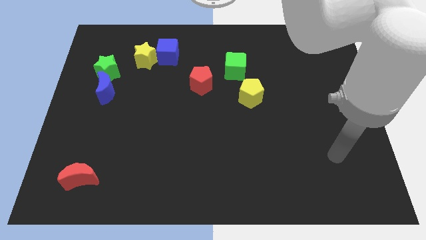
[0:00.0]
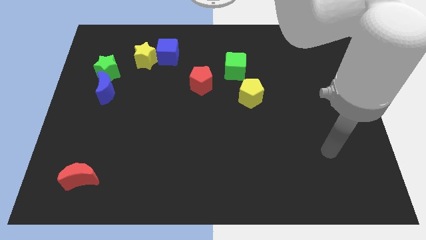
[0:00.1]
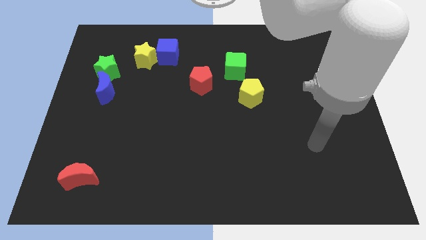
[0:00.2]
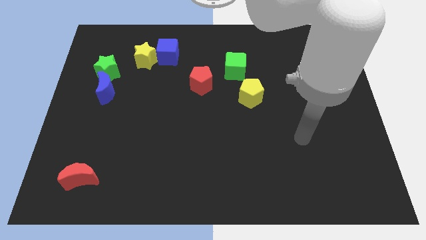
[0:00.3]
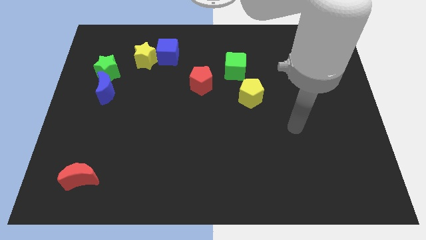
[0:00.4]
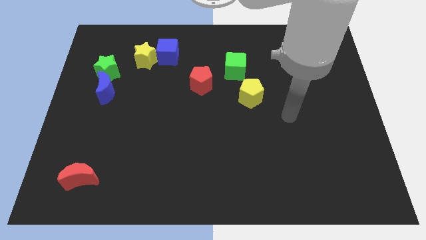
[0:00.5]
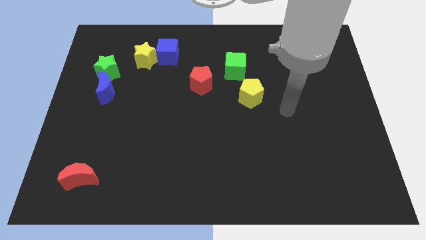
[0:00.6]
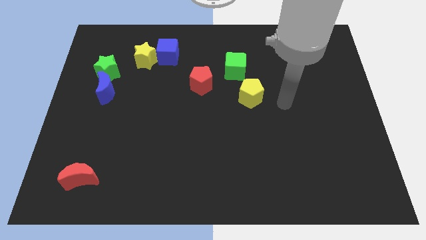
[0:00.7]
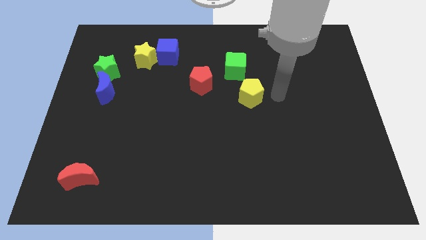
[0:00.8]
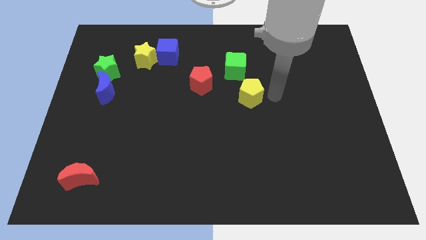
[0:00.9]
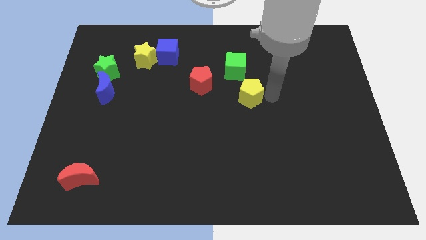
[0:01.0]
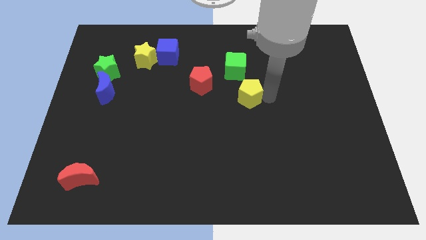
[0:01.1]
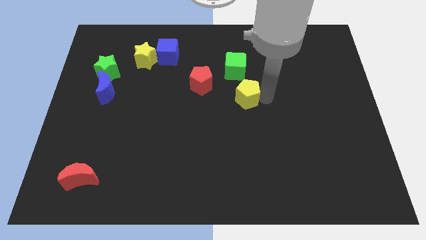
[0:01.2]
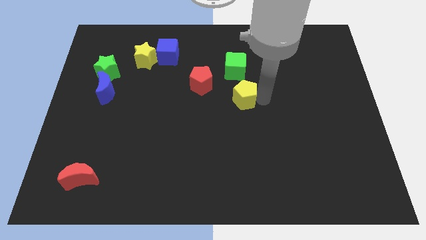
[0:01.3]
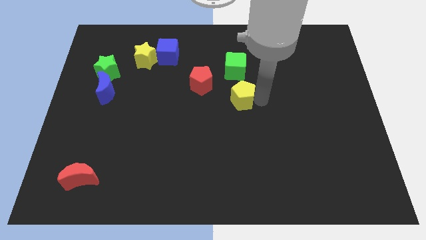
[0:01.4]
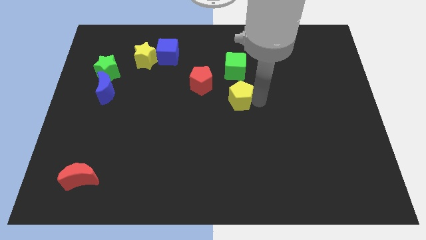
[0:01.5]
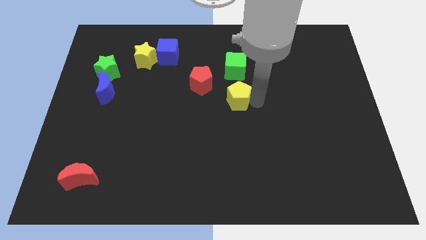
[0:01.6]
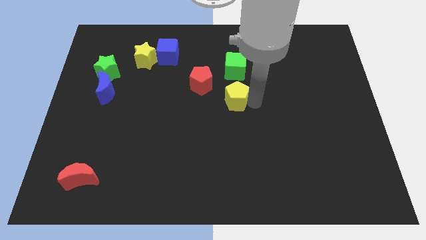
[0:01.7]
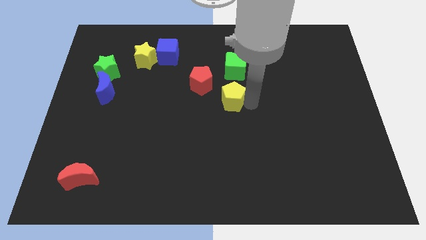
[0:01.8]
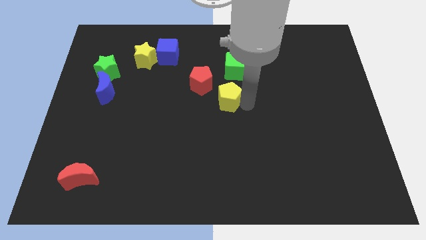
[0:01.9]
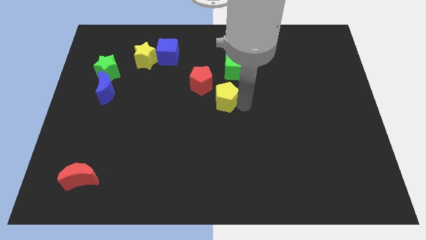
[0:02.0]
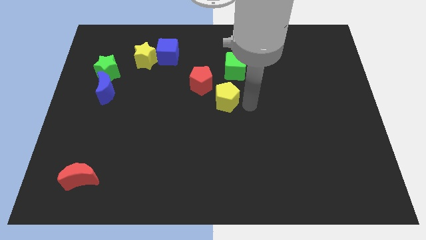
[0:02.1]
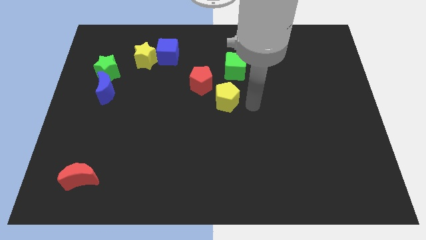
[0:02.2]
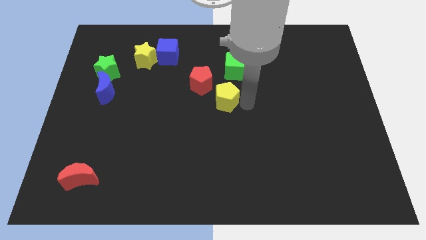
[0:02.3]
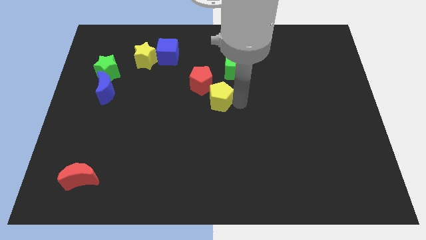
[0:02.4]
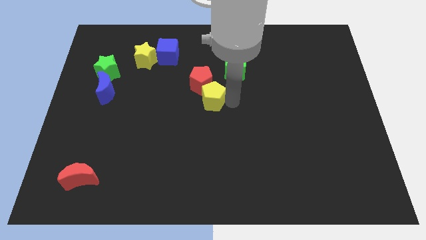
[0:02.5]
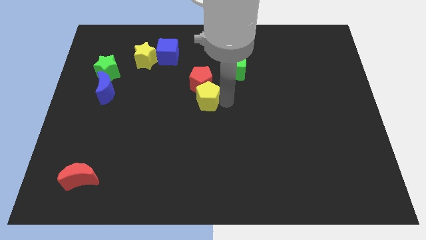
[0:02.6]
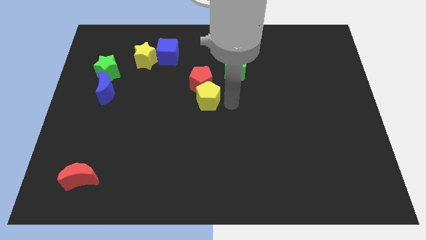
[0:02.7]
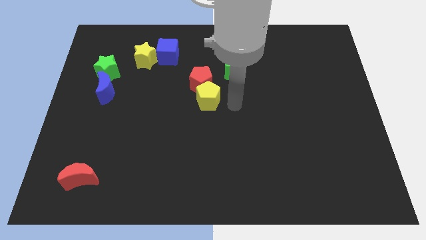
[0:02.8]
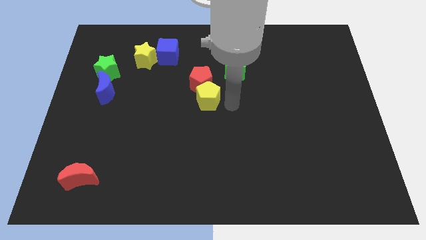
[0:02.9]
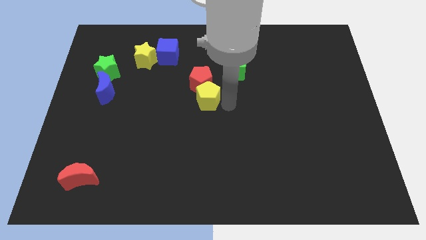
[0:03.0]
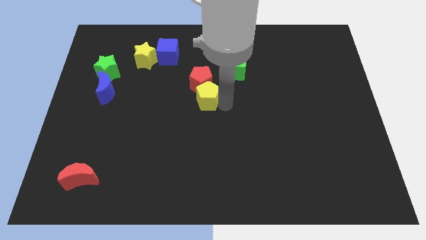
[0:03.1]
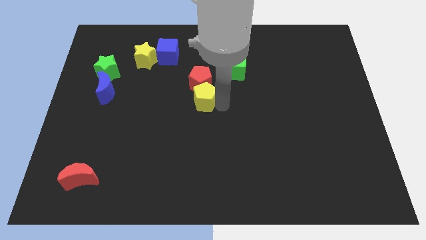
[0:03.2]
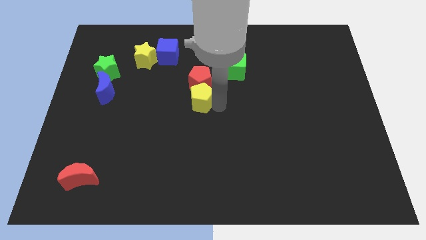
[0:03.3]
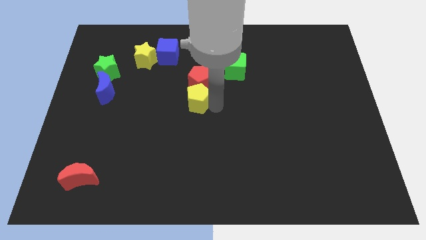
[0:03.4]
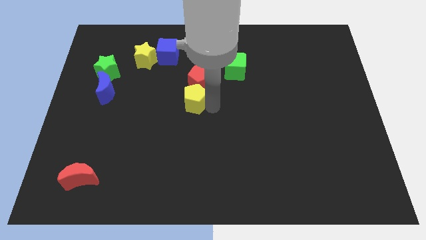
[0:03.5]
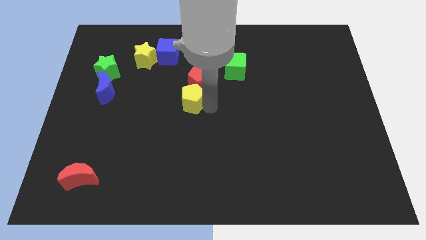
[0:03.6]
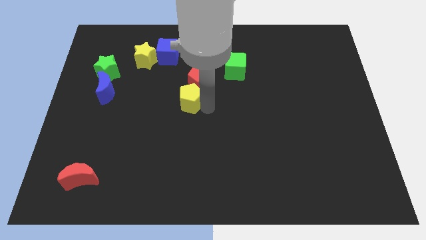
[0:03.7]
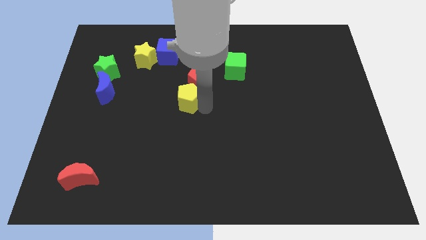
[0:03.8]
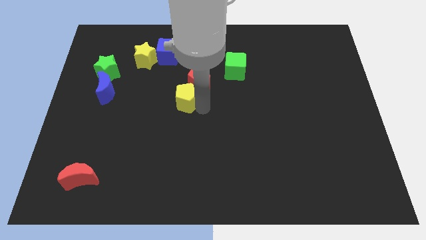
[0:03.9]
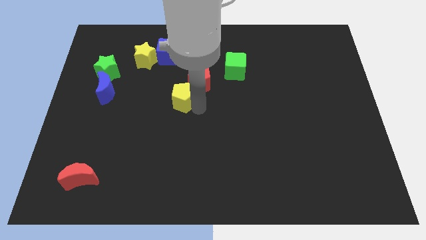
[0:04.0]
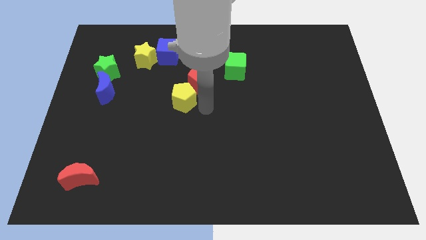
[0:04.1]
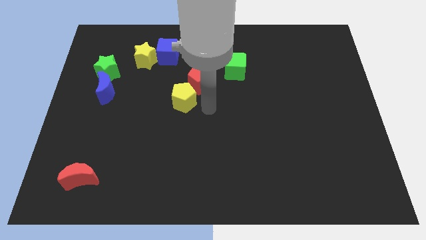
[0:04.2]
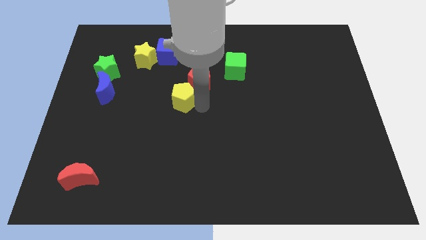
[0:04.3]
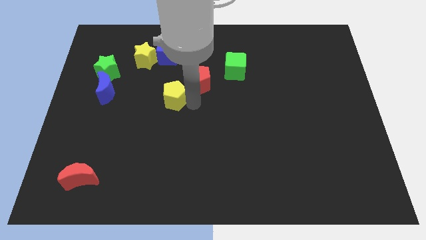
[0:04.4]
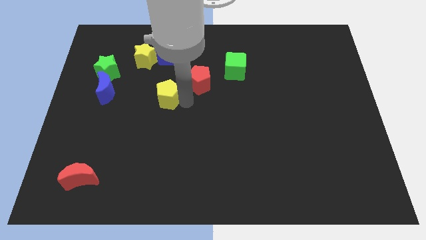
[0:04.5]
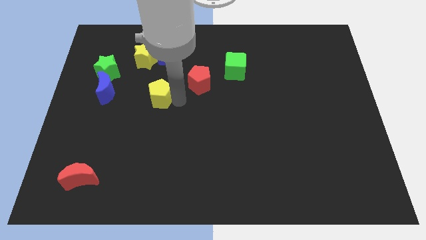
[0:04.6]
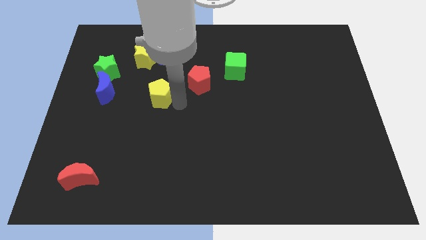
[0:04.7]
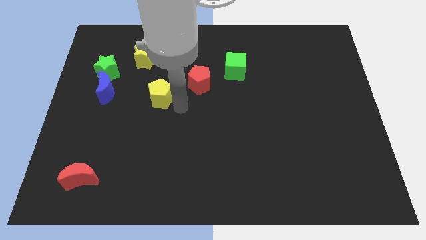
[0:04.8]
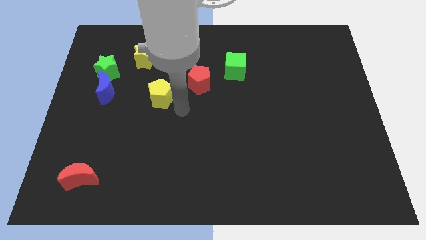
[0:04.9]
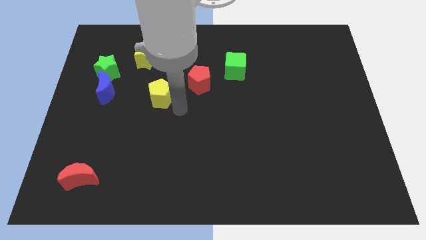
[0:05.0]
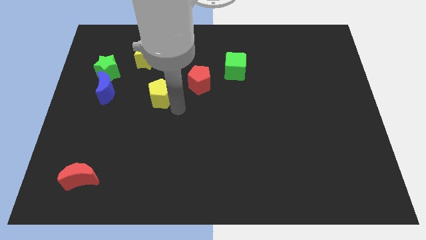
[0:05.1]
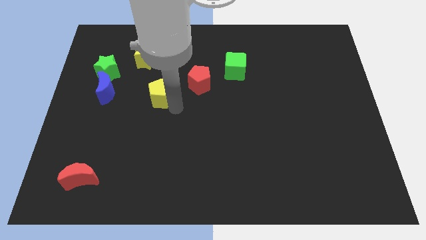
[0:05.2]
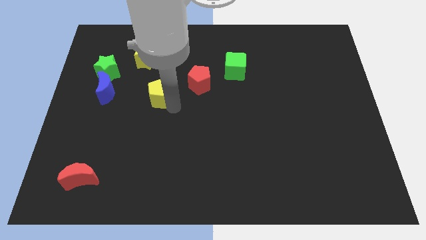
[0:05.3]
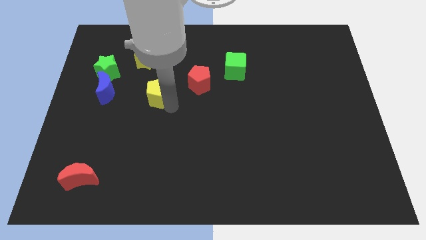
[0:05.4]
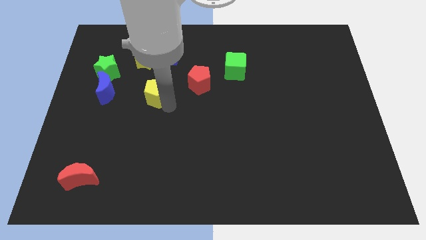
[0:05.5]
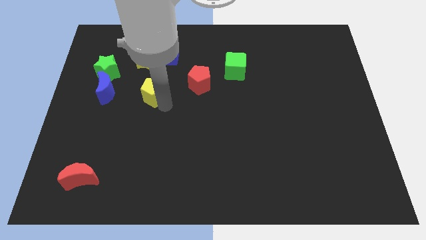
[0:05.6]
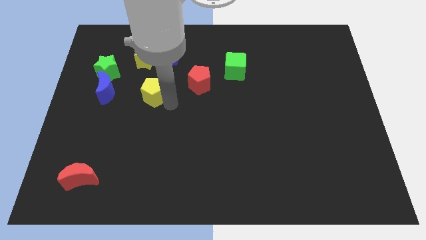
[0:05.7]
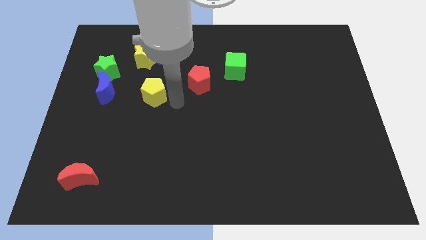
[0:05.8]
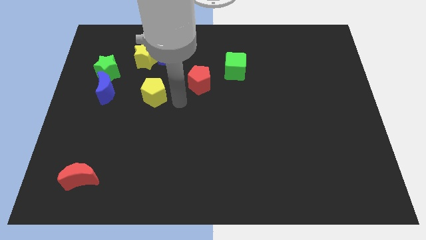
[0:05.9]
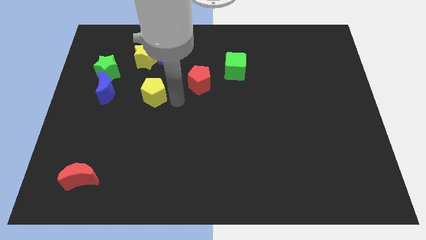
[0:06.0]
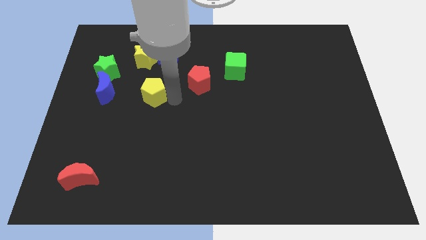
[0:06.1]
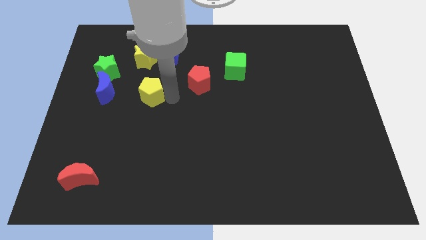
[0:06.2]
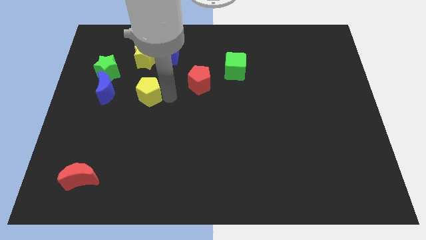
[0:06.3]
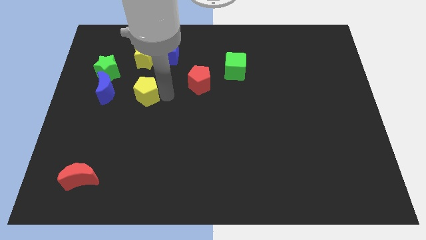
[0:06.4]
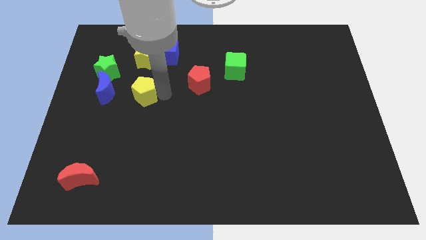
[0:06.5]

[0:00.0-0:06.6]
push the yellow pentagon to the bottom right side of the green star

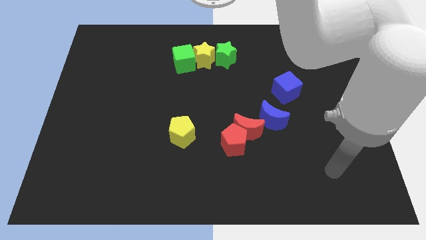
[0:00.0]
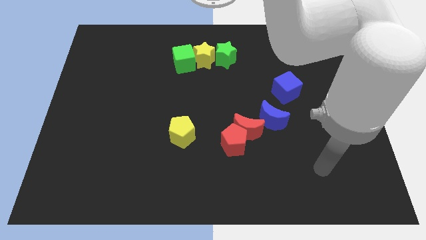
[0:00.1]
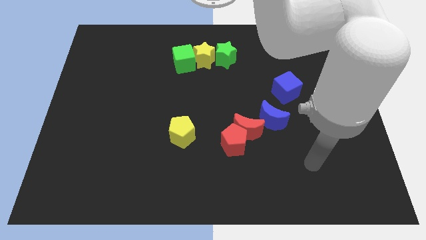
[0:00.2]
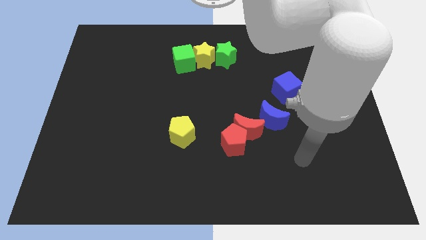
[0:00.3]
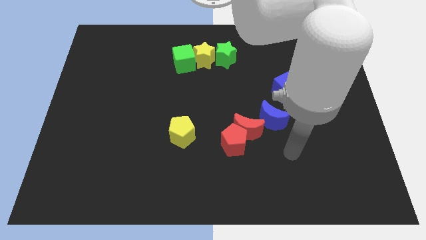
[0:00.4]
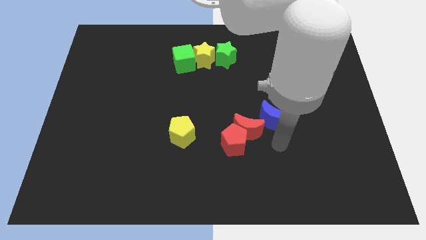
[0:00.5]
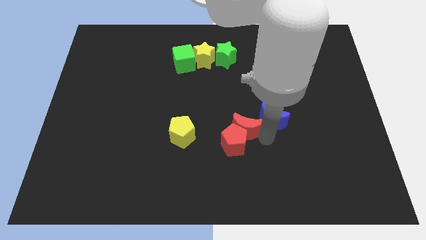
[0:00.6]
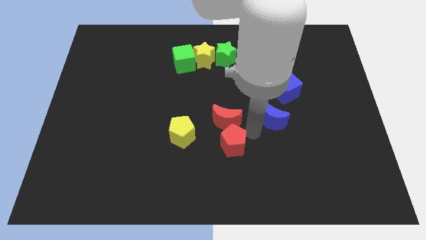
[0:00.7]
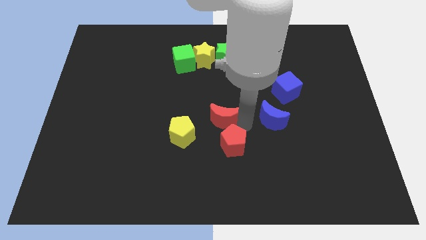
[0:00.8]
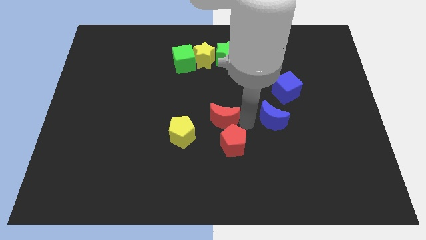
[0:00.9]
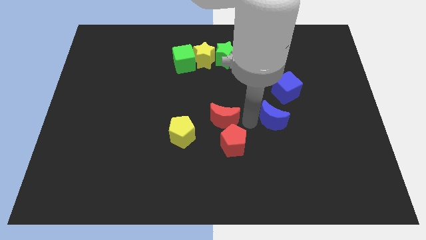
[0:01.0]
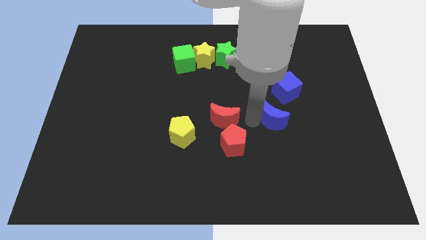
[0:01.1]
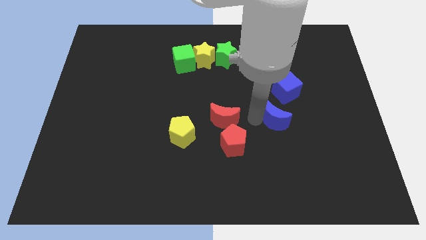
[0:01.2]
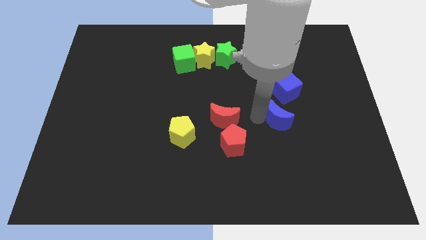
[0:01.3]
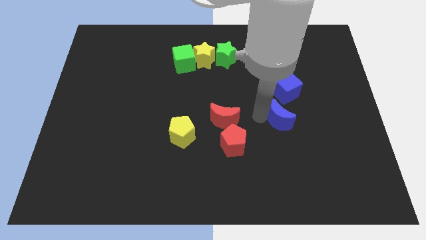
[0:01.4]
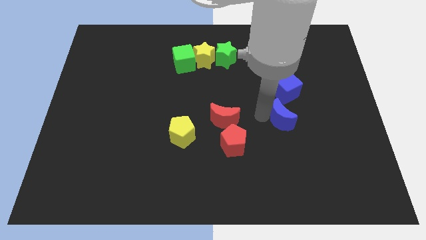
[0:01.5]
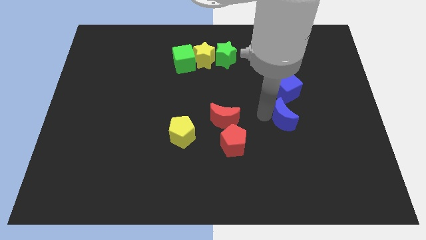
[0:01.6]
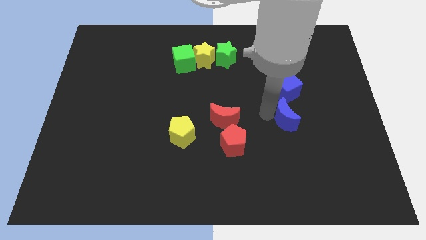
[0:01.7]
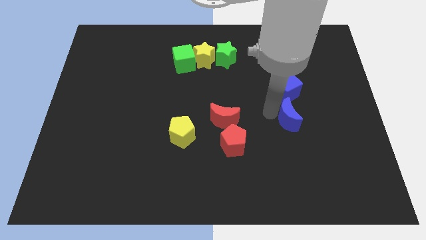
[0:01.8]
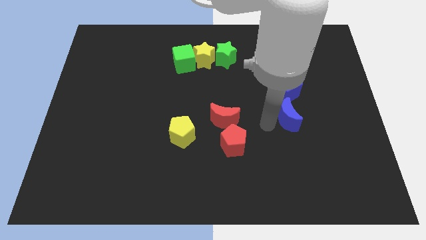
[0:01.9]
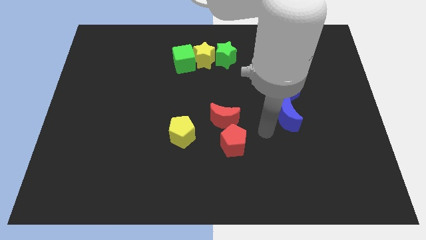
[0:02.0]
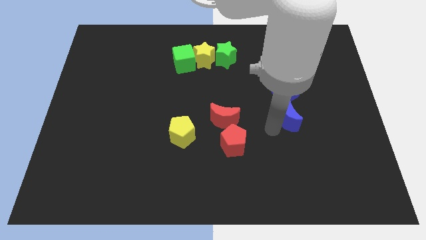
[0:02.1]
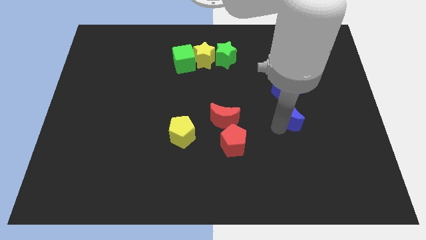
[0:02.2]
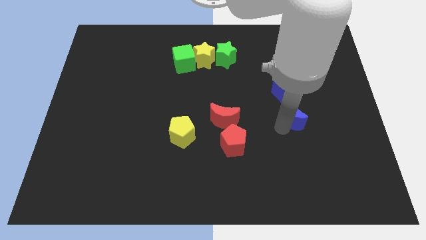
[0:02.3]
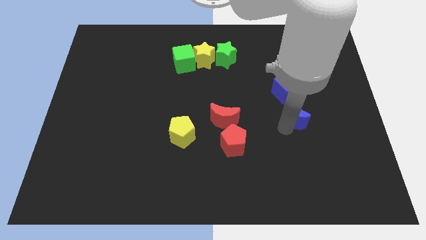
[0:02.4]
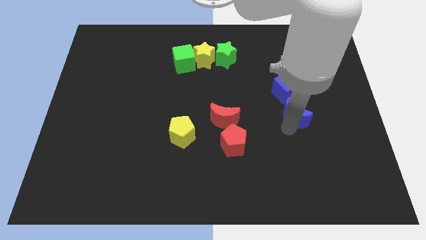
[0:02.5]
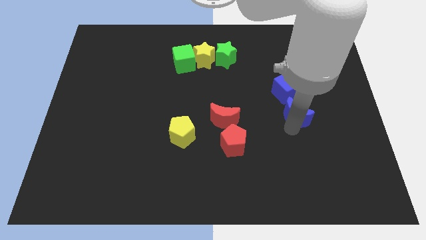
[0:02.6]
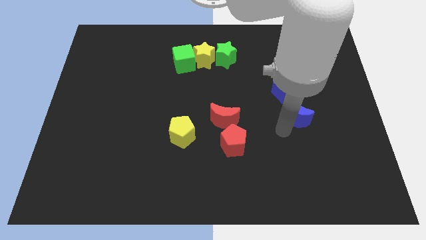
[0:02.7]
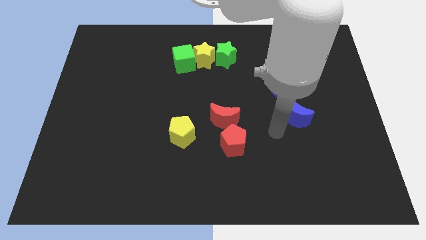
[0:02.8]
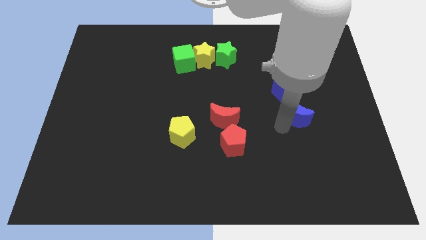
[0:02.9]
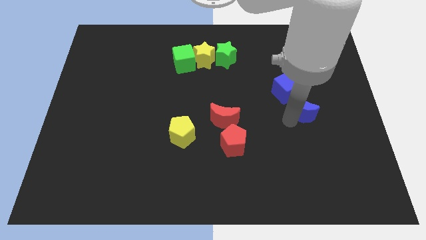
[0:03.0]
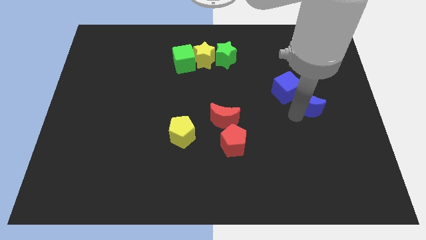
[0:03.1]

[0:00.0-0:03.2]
push the blue moon right of the blue cube
